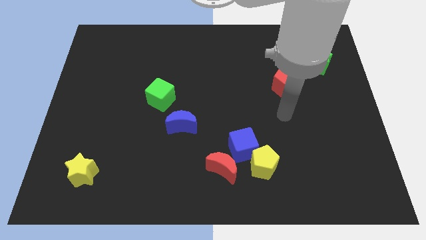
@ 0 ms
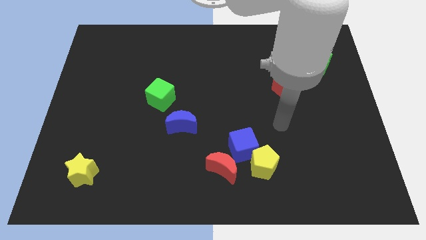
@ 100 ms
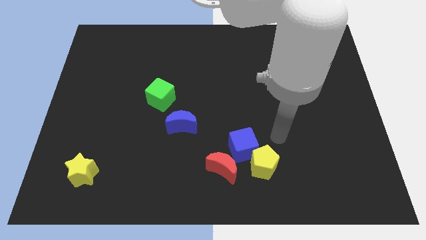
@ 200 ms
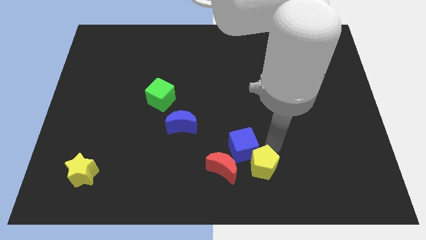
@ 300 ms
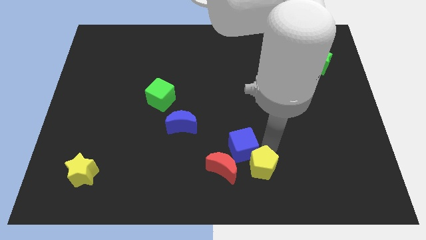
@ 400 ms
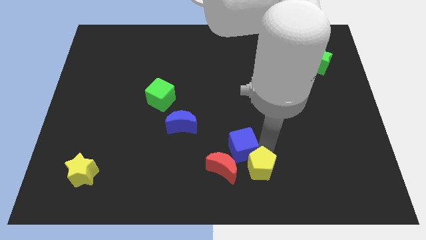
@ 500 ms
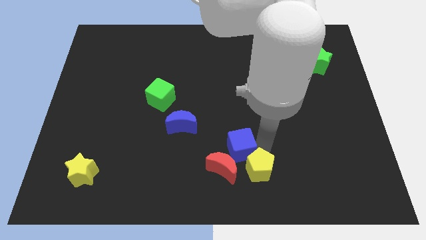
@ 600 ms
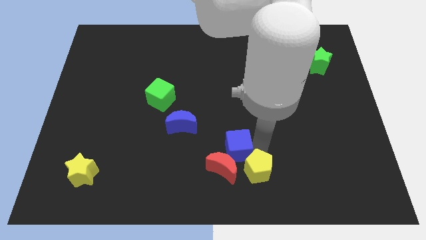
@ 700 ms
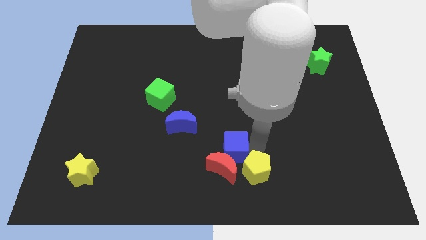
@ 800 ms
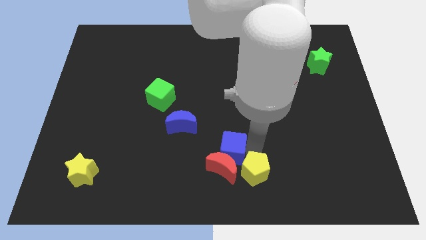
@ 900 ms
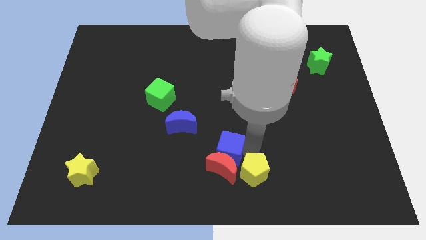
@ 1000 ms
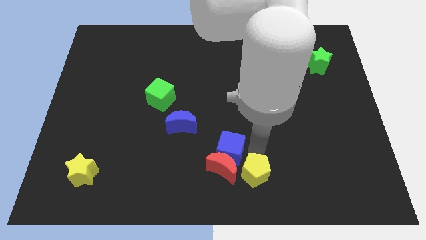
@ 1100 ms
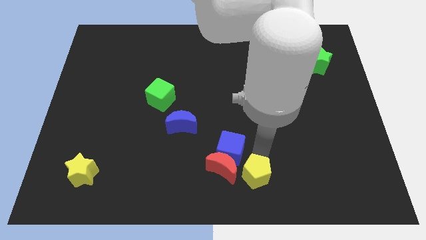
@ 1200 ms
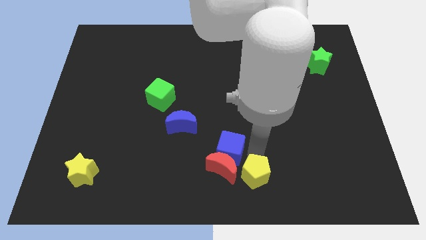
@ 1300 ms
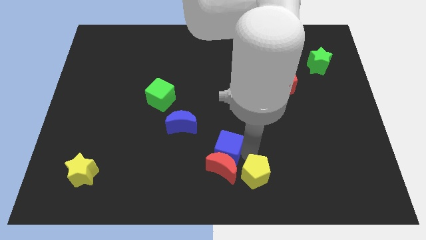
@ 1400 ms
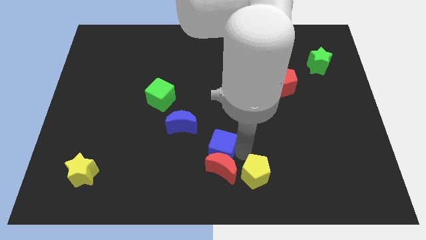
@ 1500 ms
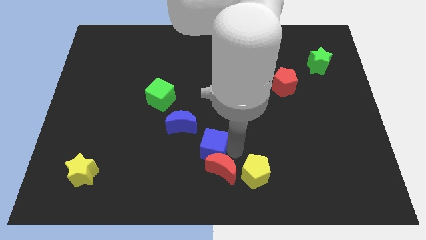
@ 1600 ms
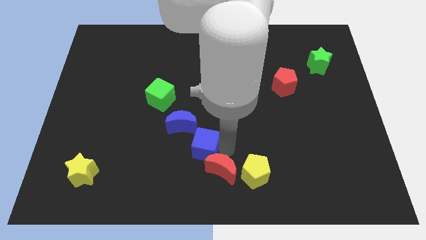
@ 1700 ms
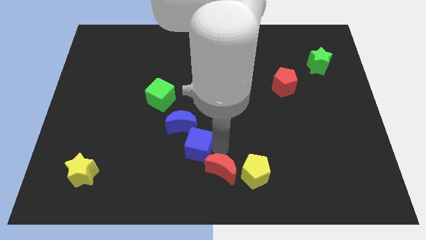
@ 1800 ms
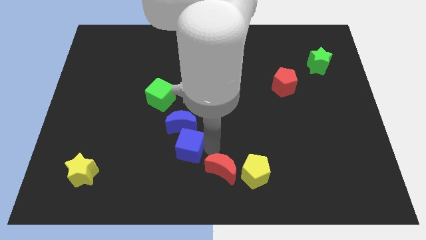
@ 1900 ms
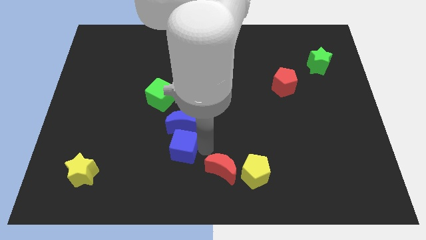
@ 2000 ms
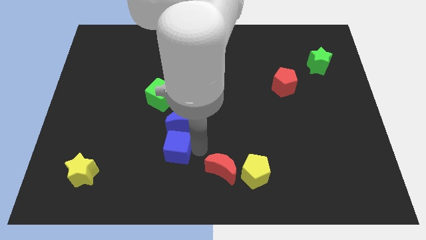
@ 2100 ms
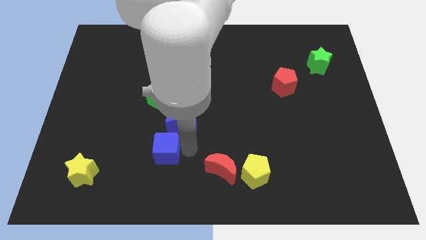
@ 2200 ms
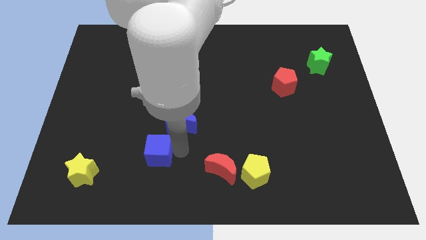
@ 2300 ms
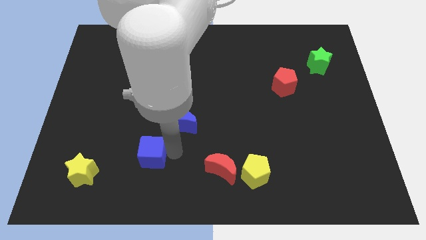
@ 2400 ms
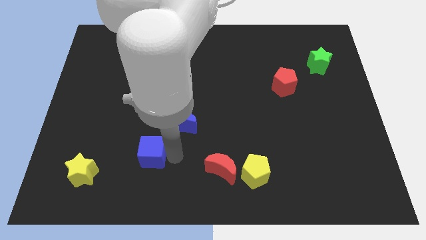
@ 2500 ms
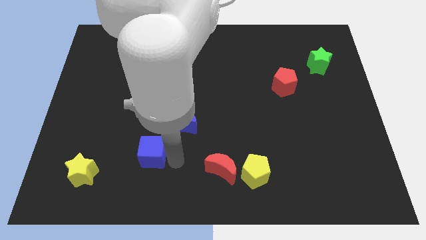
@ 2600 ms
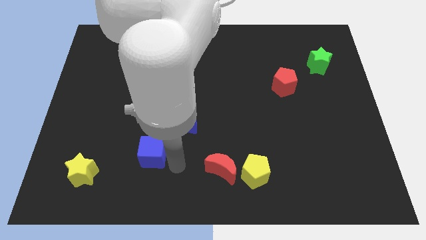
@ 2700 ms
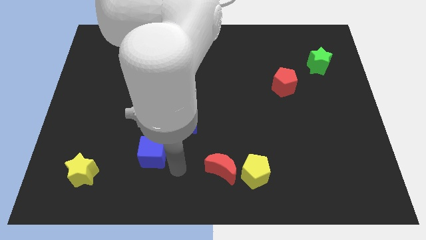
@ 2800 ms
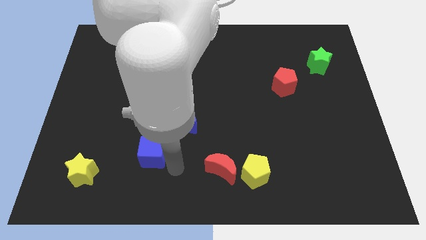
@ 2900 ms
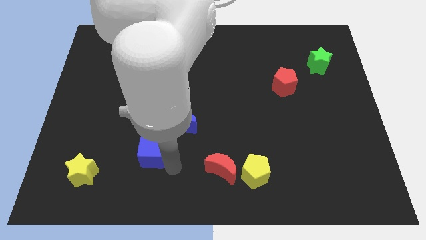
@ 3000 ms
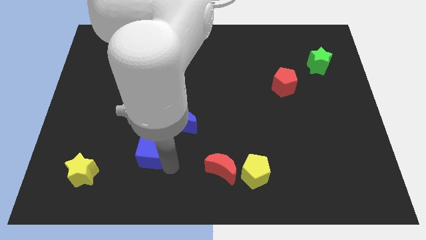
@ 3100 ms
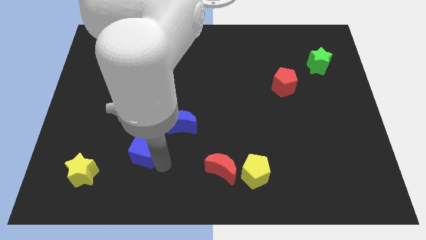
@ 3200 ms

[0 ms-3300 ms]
move the blue cube to the left

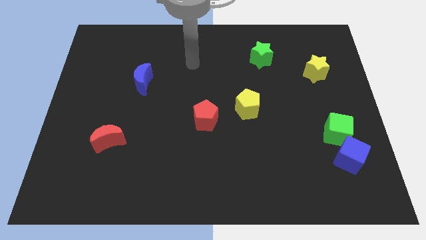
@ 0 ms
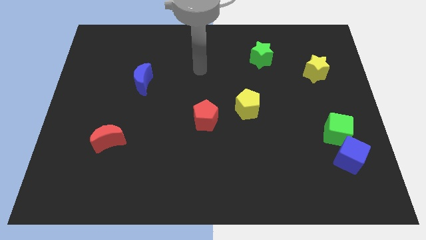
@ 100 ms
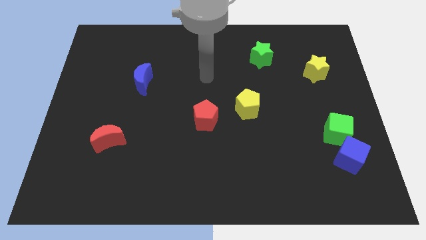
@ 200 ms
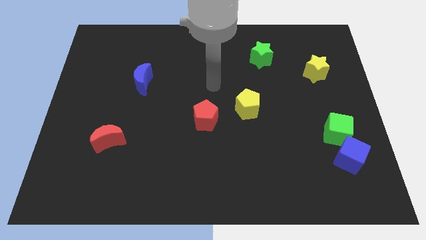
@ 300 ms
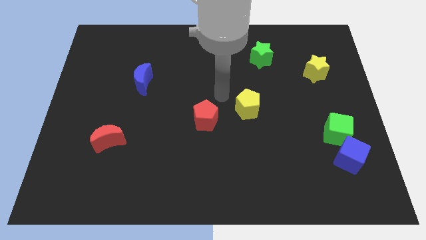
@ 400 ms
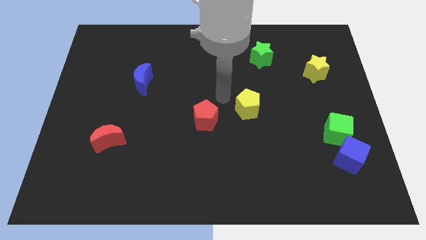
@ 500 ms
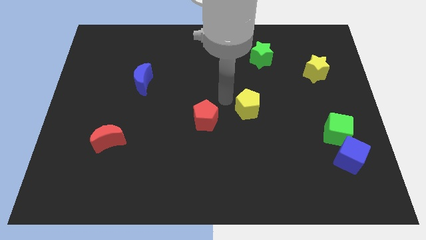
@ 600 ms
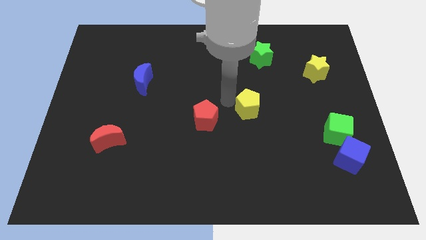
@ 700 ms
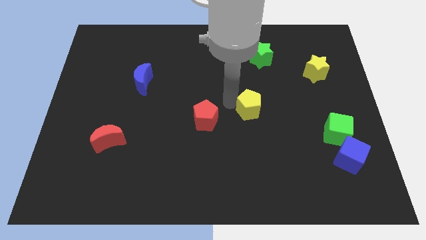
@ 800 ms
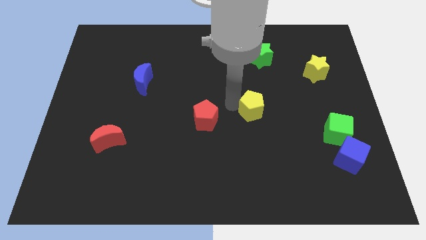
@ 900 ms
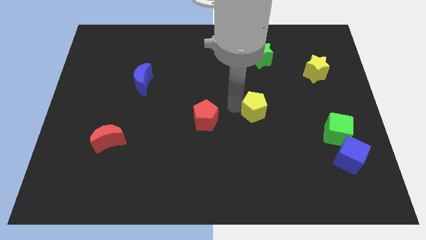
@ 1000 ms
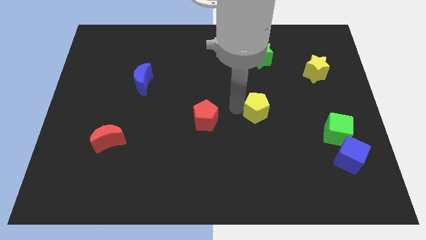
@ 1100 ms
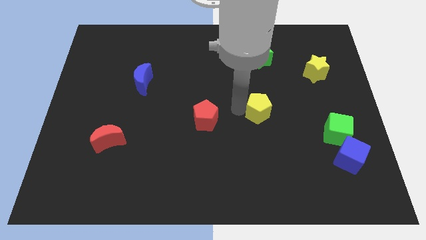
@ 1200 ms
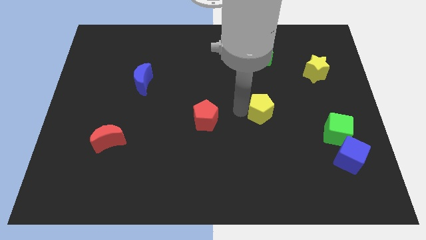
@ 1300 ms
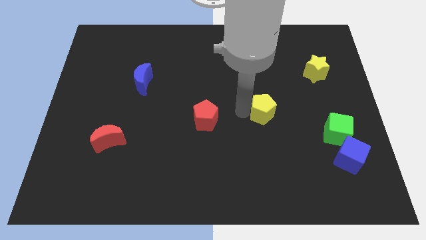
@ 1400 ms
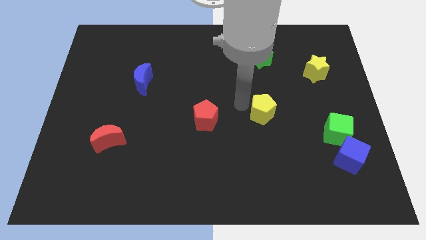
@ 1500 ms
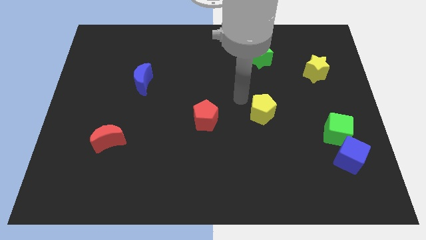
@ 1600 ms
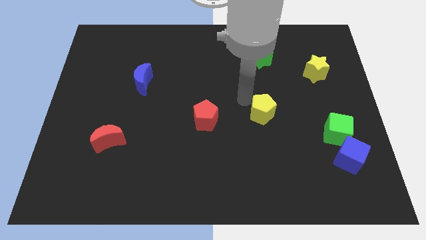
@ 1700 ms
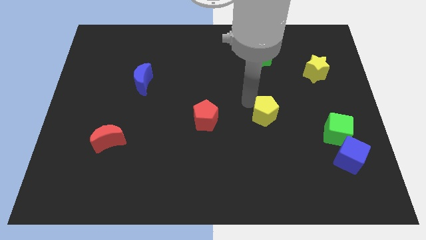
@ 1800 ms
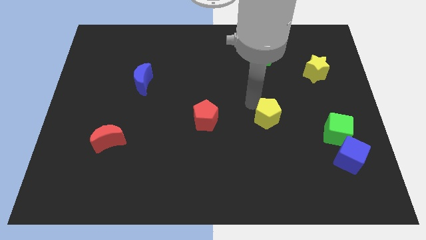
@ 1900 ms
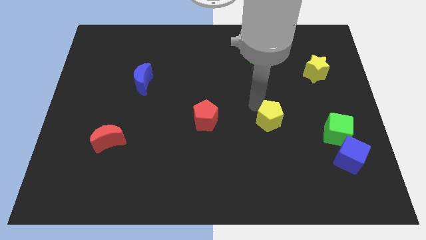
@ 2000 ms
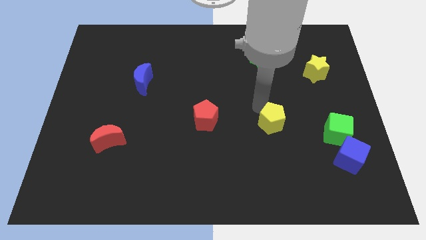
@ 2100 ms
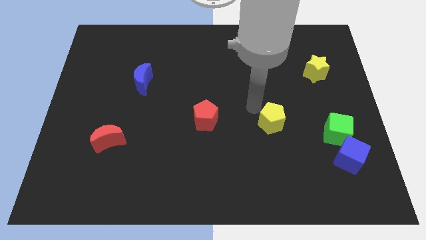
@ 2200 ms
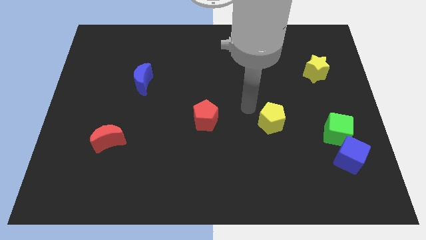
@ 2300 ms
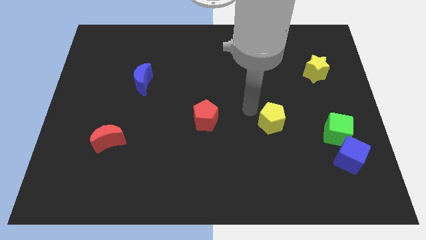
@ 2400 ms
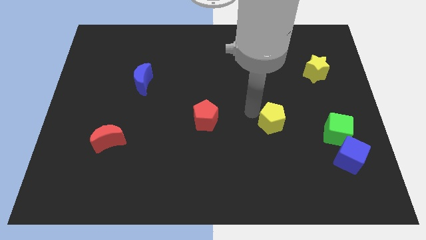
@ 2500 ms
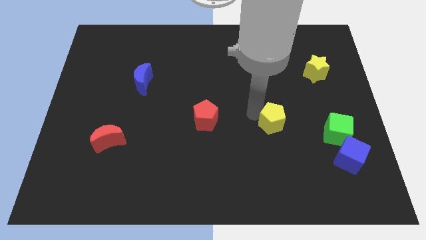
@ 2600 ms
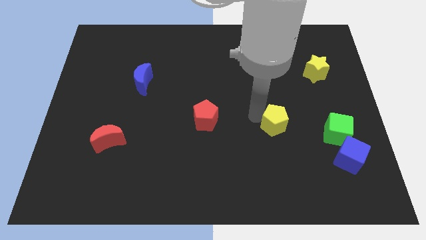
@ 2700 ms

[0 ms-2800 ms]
slide the yellow pentagon somewhat downwards and then to the right

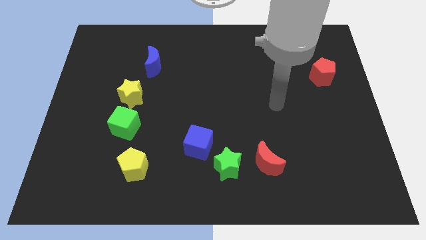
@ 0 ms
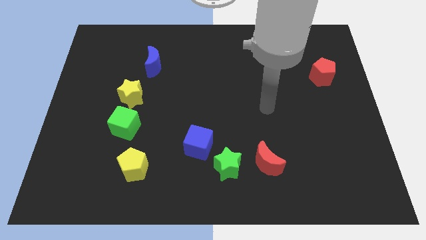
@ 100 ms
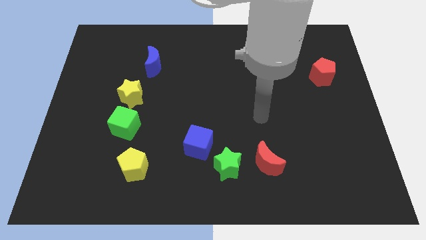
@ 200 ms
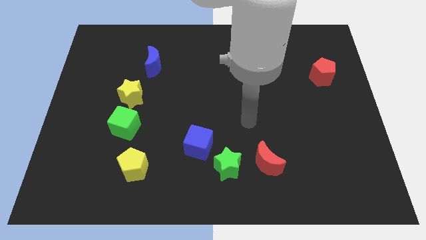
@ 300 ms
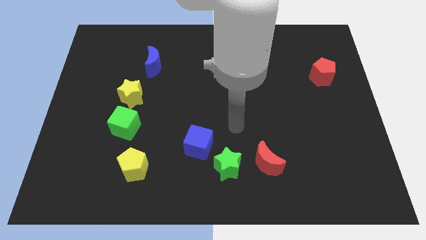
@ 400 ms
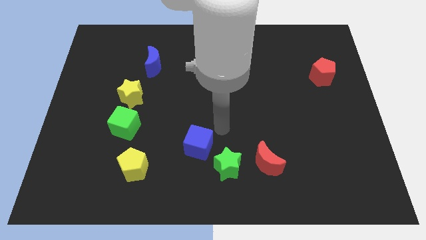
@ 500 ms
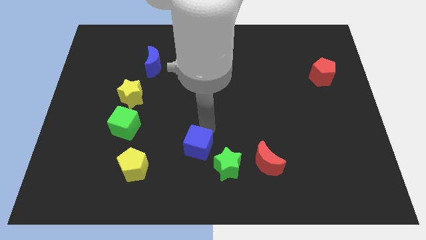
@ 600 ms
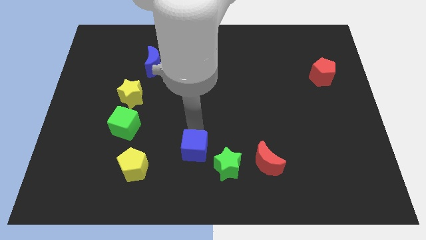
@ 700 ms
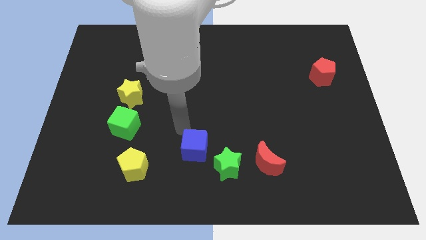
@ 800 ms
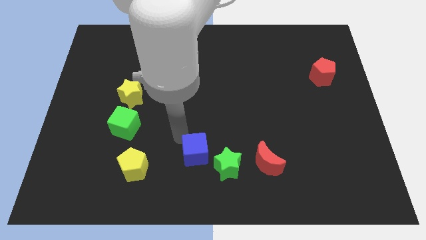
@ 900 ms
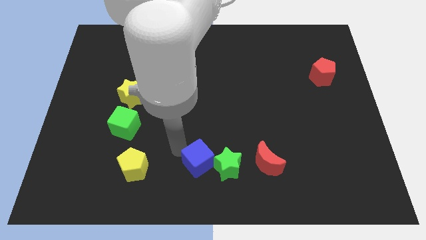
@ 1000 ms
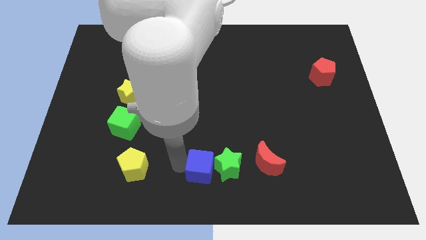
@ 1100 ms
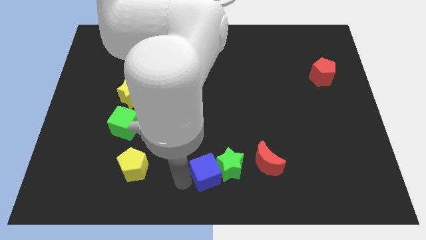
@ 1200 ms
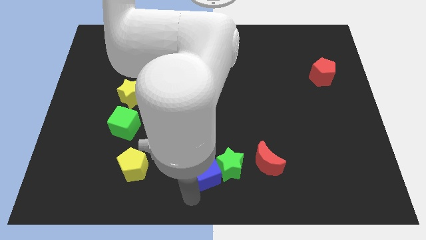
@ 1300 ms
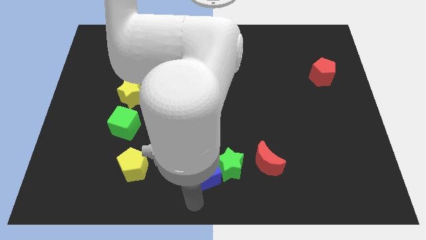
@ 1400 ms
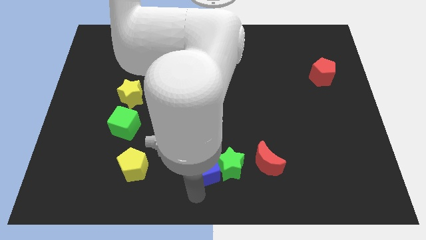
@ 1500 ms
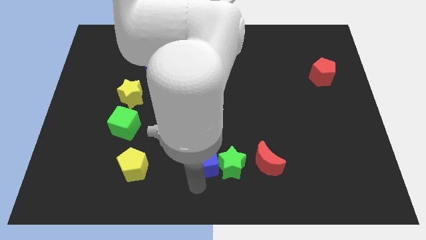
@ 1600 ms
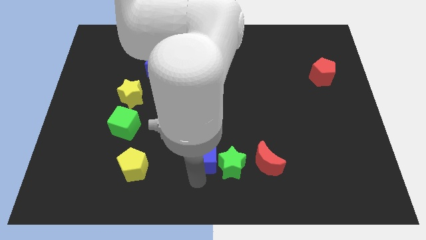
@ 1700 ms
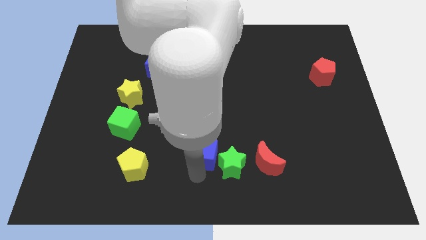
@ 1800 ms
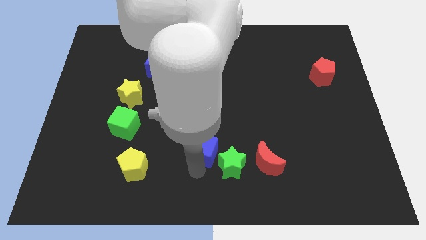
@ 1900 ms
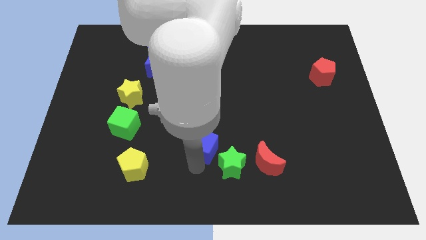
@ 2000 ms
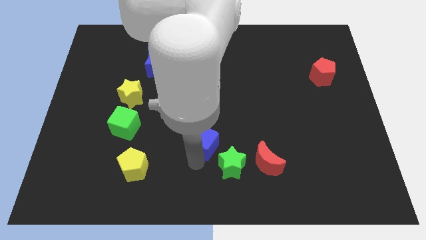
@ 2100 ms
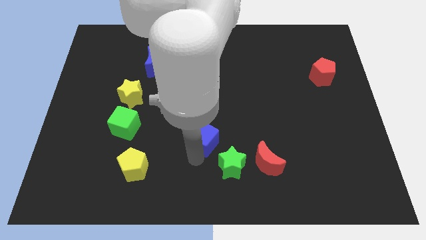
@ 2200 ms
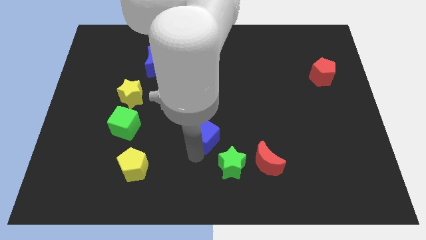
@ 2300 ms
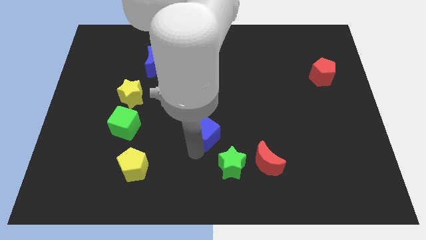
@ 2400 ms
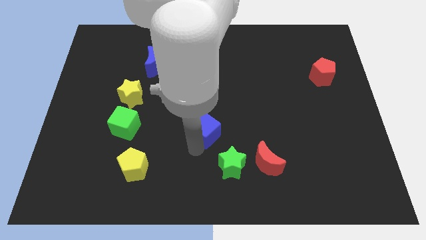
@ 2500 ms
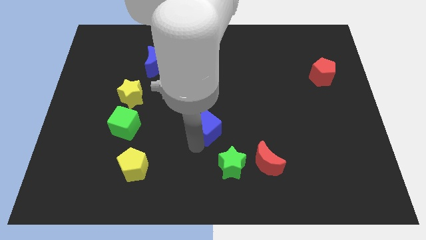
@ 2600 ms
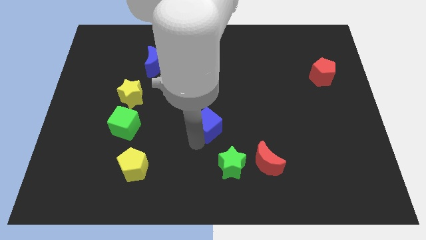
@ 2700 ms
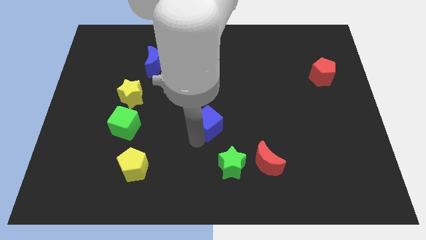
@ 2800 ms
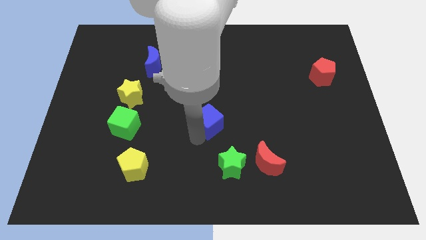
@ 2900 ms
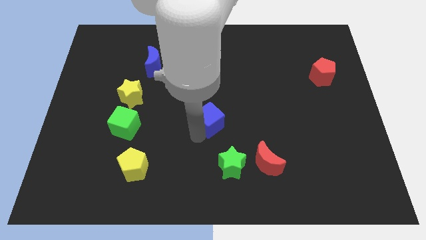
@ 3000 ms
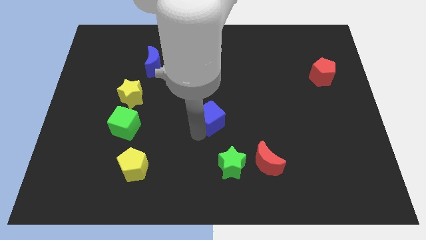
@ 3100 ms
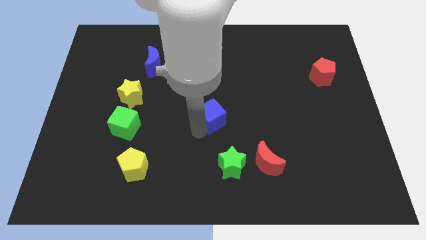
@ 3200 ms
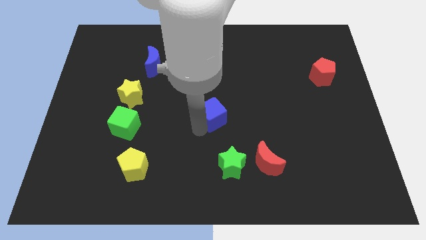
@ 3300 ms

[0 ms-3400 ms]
slightly move the blue cube up and right
